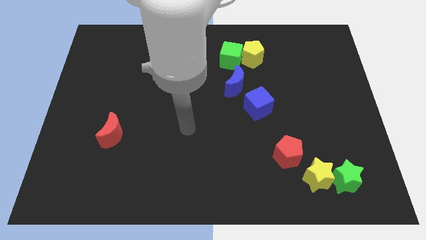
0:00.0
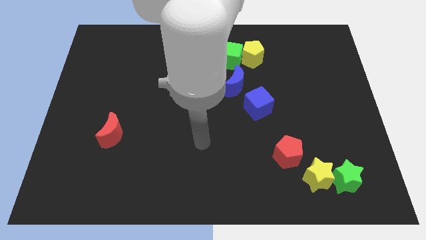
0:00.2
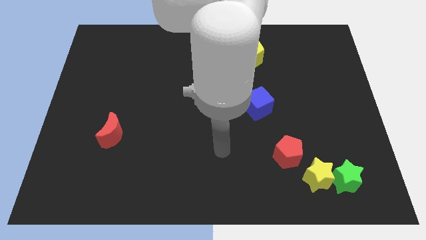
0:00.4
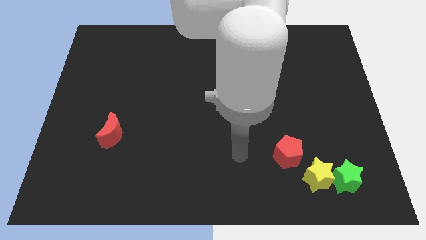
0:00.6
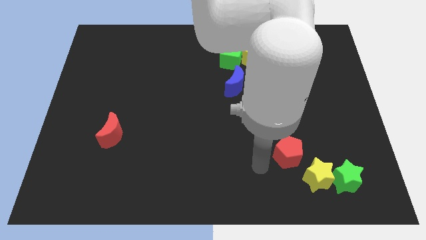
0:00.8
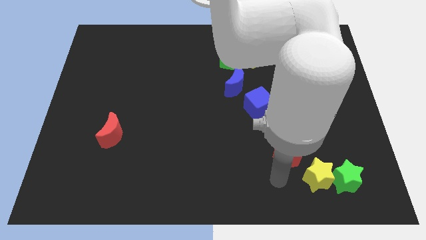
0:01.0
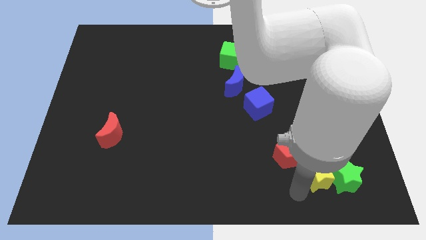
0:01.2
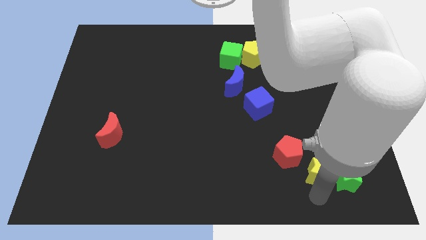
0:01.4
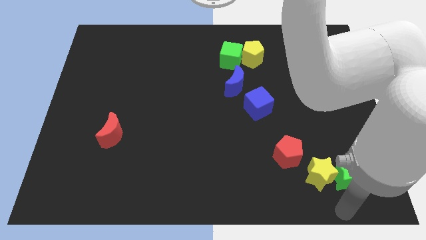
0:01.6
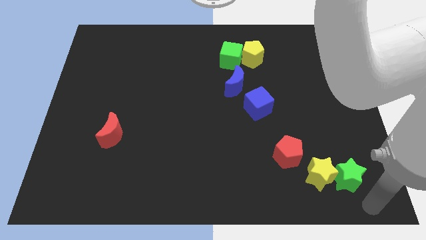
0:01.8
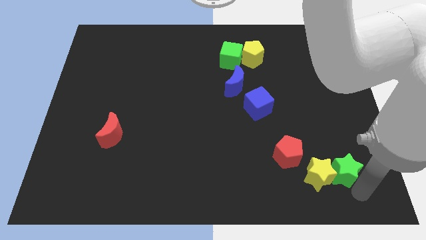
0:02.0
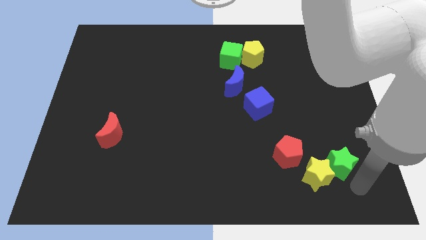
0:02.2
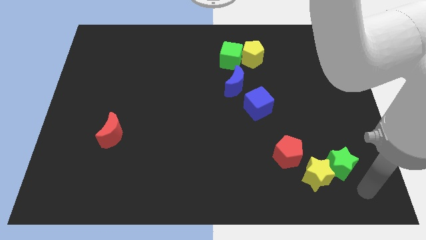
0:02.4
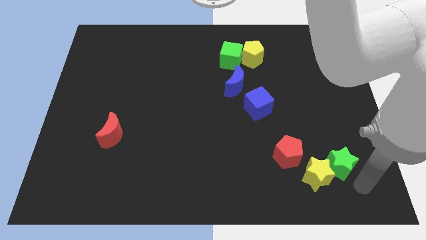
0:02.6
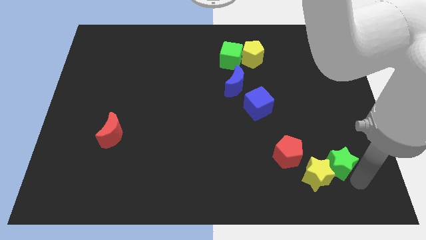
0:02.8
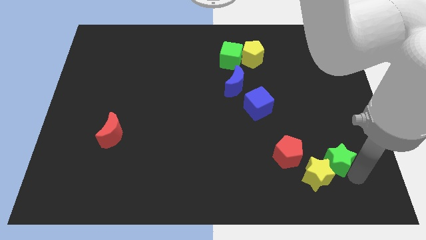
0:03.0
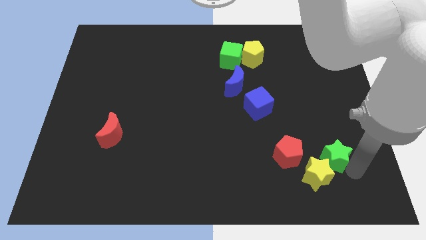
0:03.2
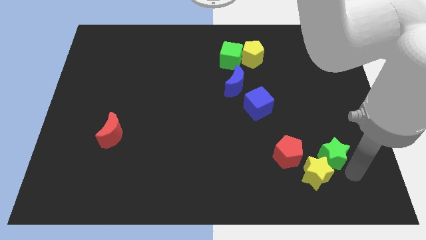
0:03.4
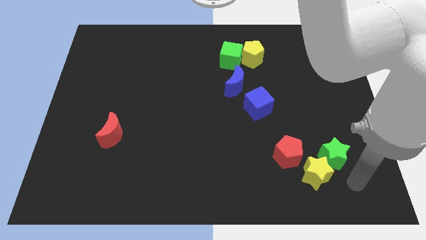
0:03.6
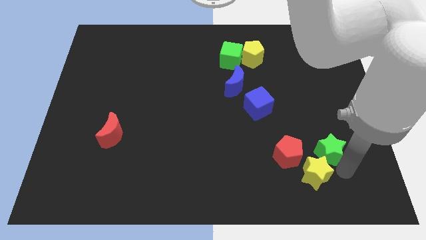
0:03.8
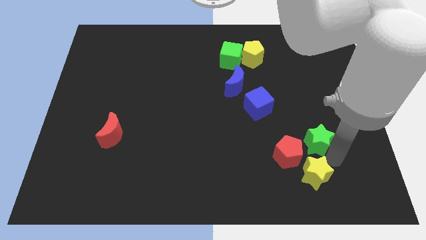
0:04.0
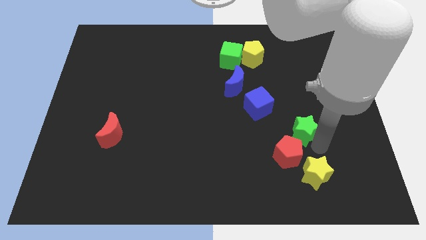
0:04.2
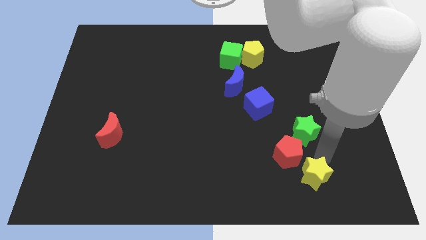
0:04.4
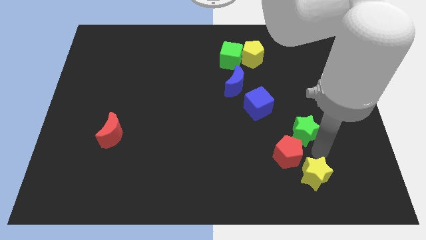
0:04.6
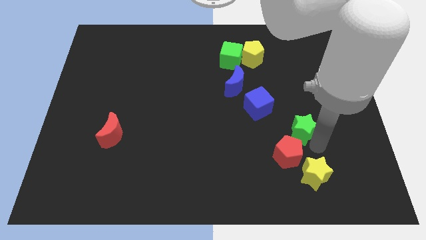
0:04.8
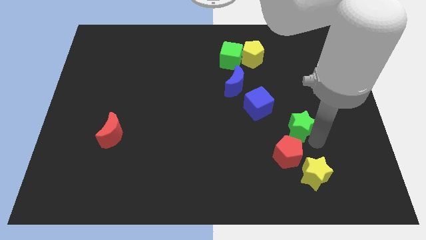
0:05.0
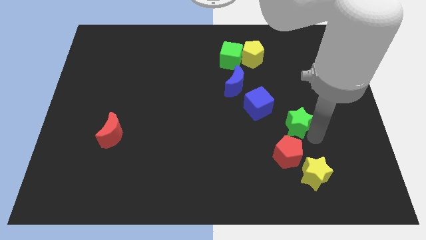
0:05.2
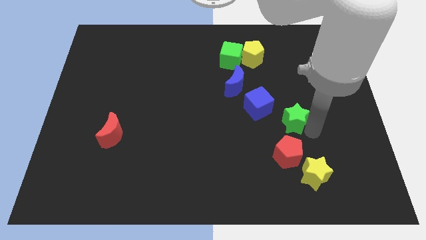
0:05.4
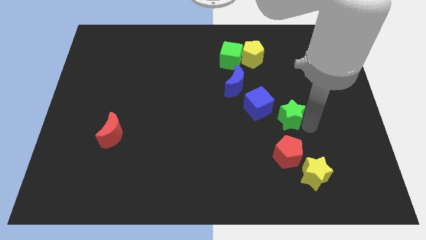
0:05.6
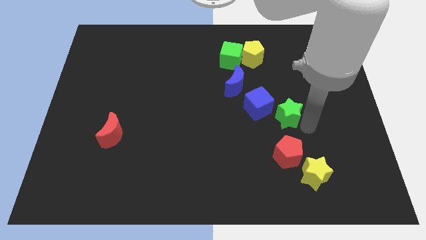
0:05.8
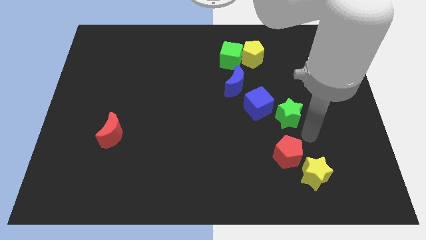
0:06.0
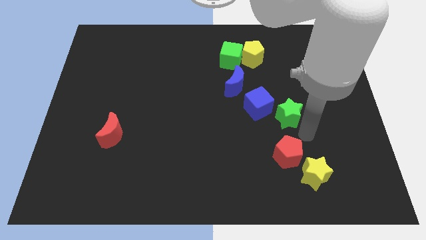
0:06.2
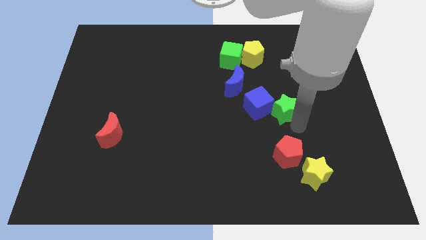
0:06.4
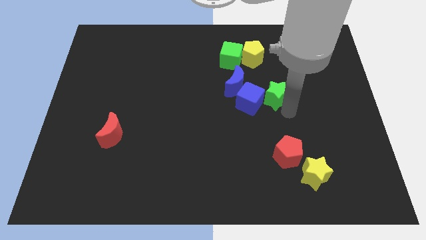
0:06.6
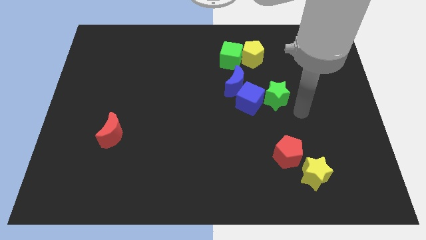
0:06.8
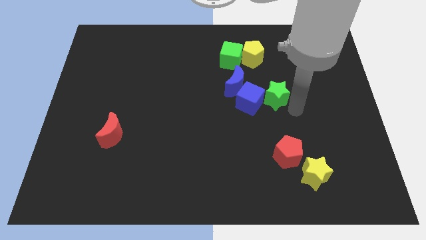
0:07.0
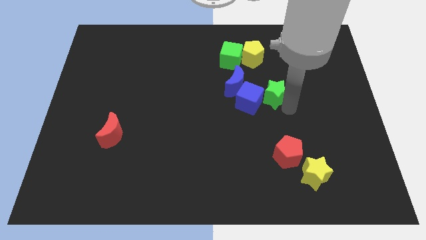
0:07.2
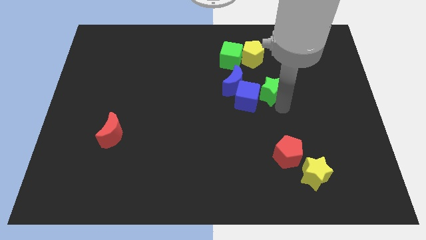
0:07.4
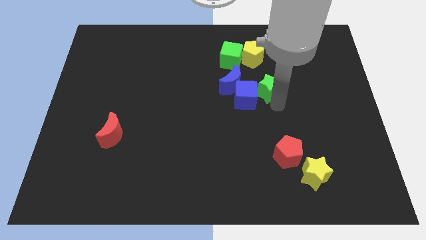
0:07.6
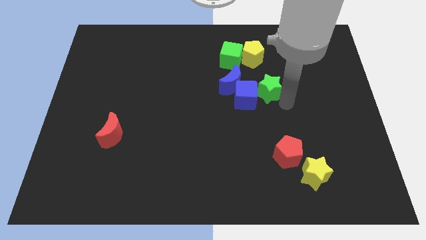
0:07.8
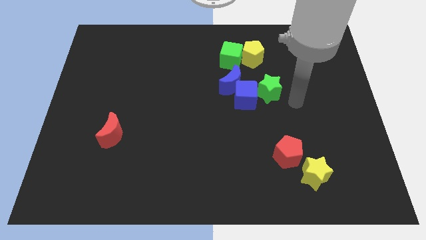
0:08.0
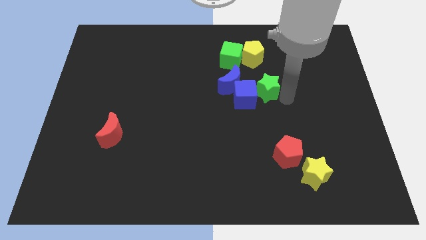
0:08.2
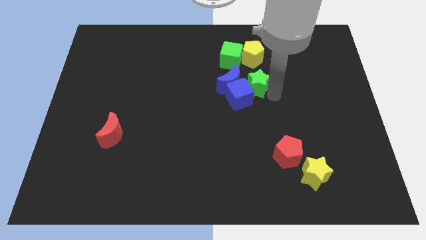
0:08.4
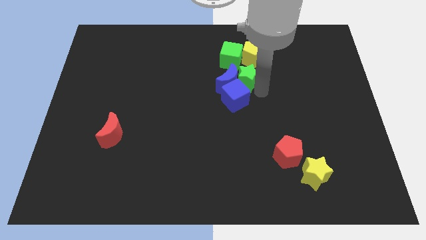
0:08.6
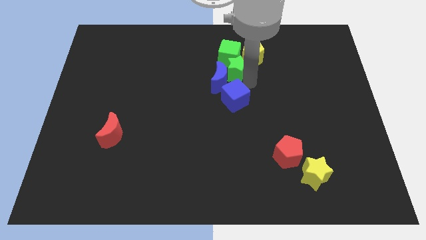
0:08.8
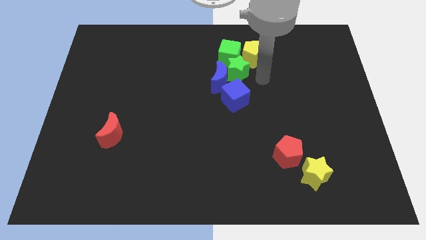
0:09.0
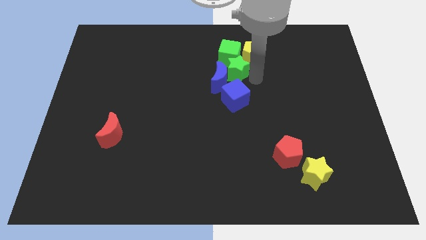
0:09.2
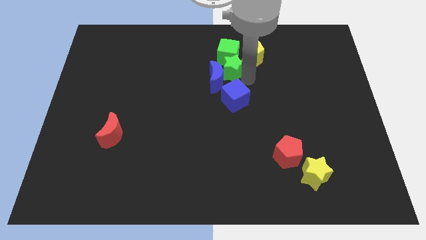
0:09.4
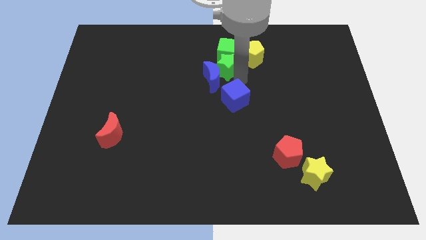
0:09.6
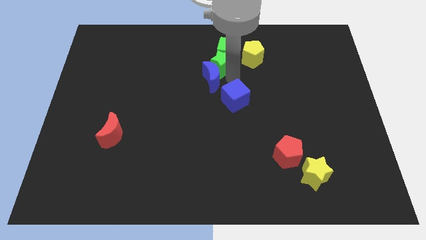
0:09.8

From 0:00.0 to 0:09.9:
push the green star diagonally up and to the left of the blue moon

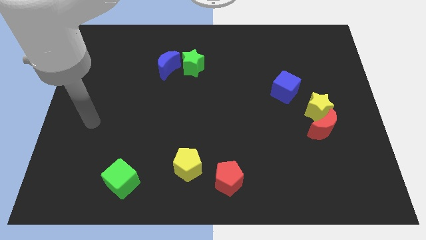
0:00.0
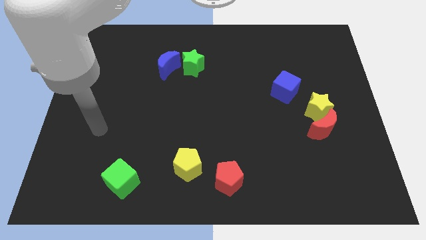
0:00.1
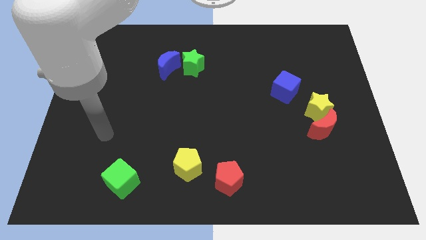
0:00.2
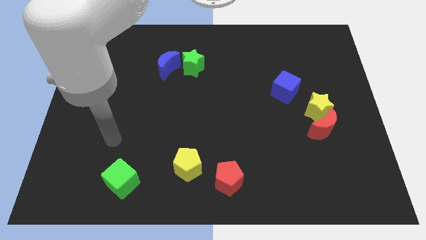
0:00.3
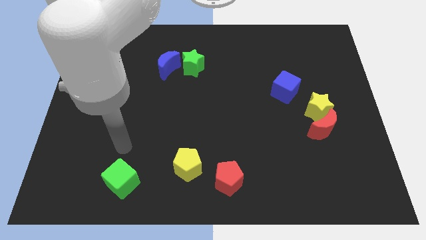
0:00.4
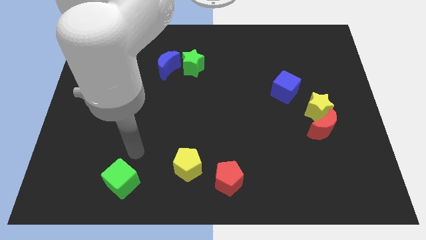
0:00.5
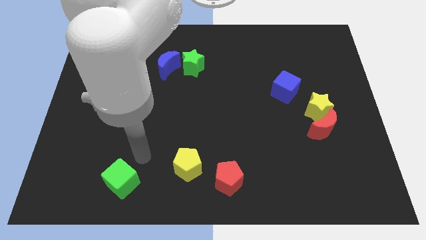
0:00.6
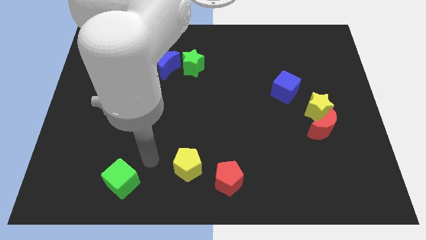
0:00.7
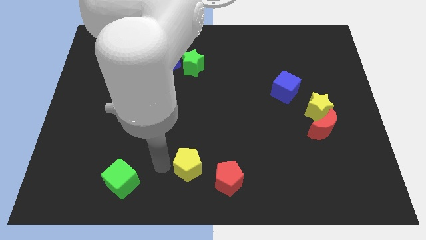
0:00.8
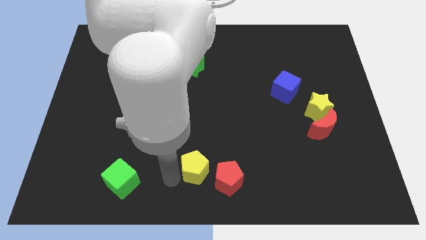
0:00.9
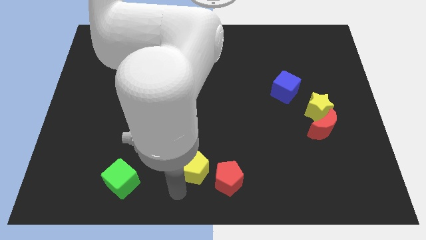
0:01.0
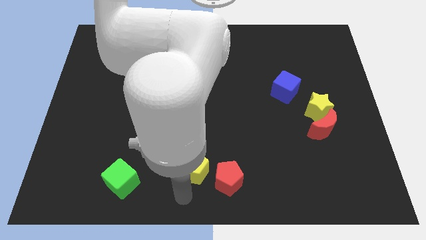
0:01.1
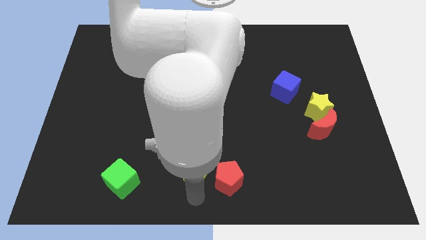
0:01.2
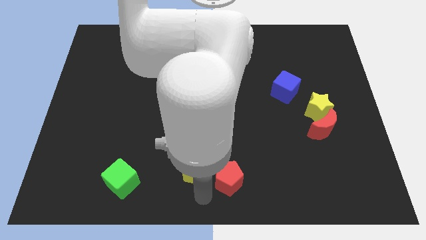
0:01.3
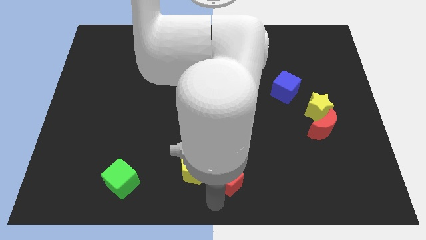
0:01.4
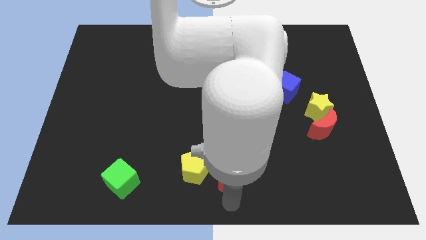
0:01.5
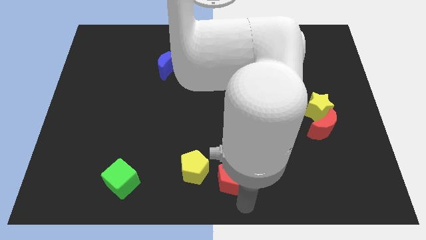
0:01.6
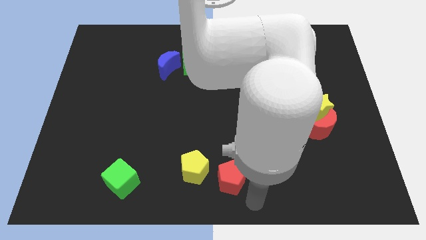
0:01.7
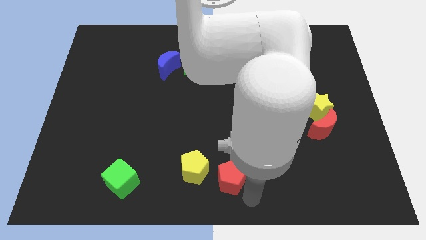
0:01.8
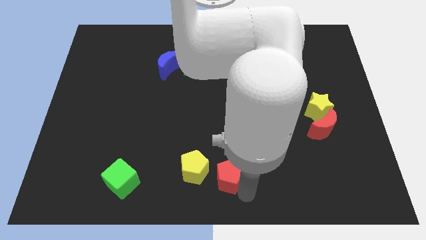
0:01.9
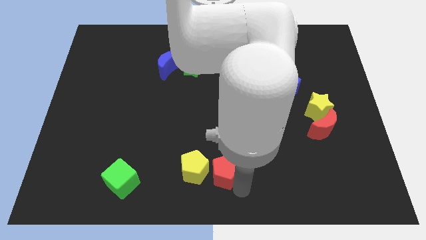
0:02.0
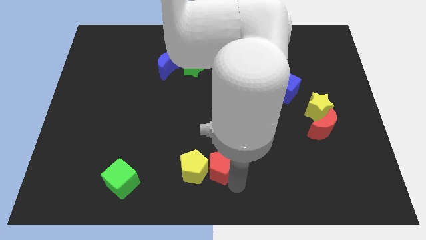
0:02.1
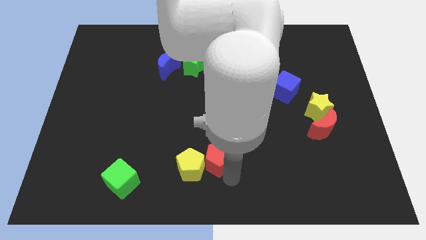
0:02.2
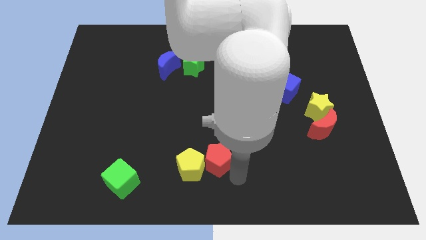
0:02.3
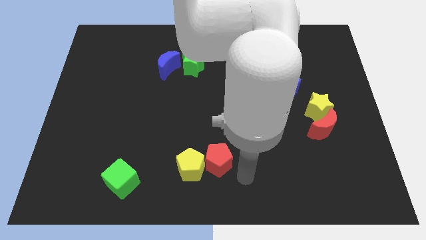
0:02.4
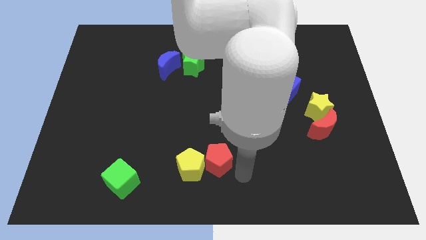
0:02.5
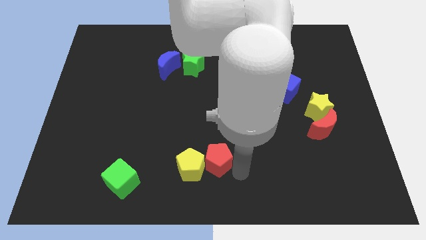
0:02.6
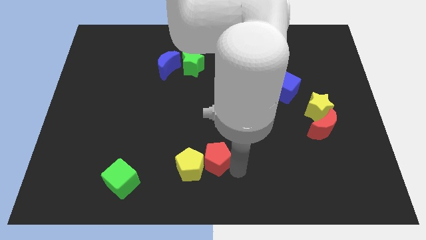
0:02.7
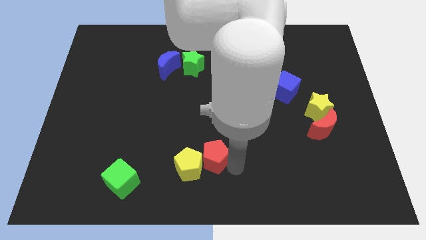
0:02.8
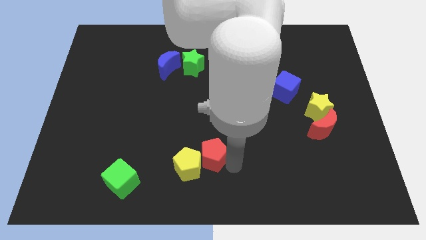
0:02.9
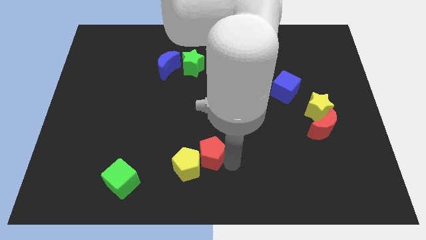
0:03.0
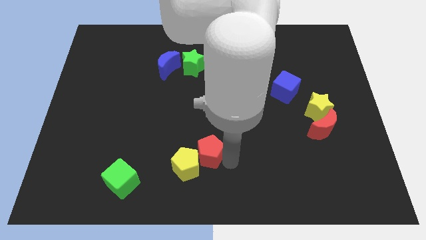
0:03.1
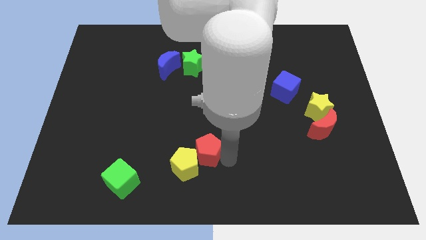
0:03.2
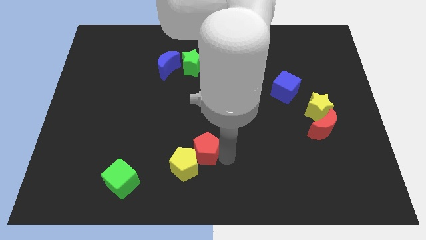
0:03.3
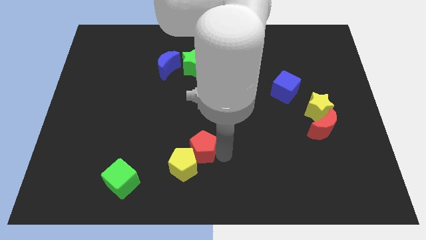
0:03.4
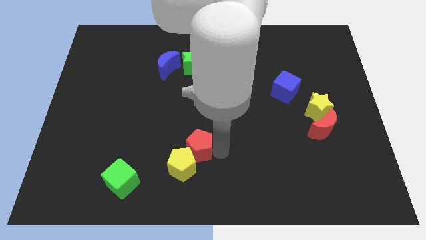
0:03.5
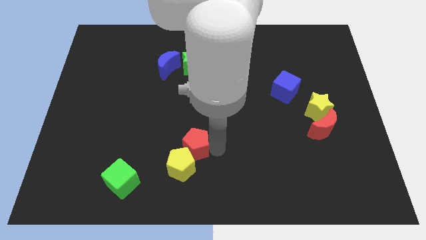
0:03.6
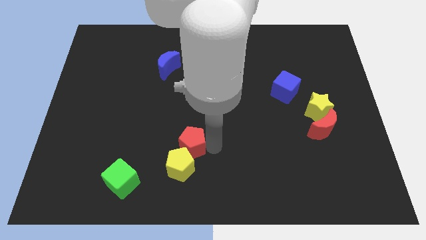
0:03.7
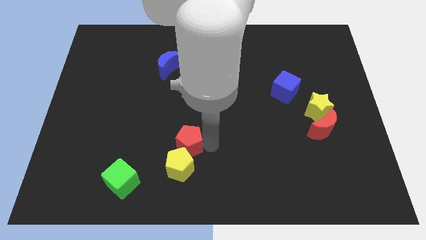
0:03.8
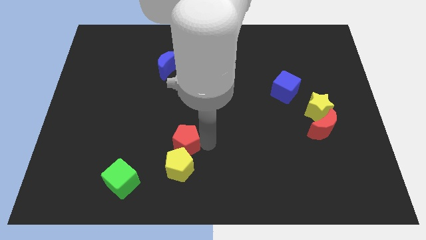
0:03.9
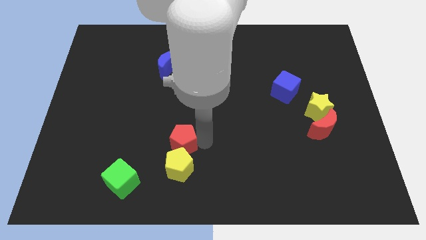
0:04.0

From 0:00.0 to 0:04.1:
push the red pentagon to the top left of the yellow pentagon
